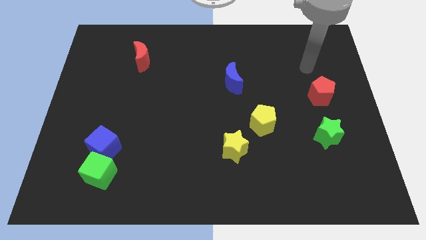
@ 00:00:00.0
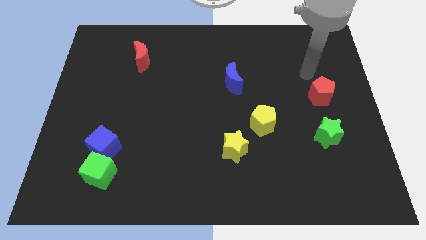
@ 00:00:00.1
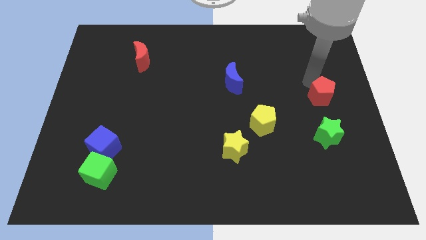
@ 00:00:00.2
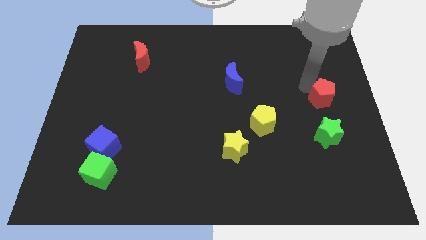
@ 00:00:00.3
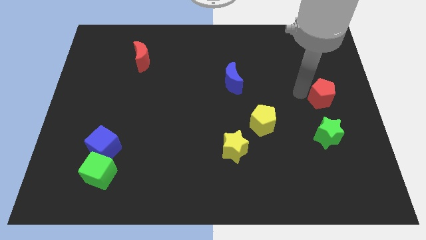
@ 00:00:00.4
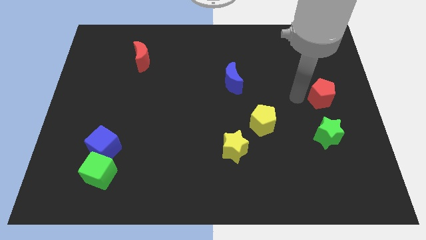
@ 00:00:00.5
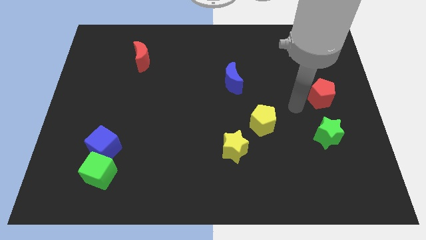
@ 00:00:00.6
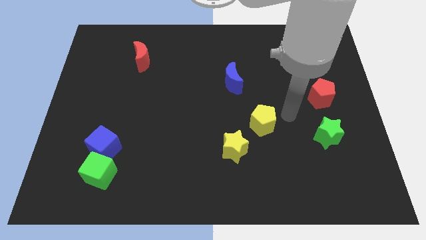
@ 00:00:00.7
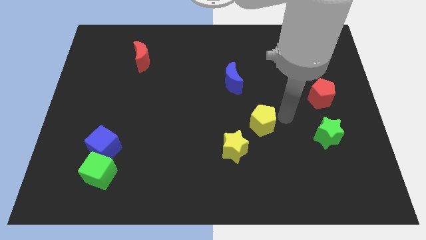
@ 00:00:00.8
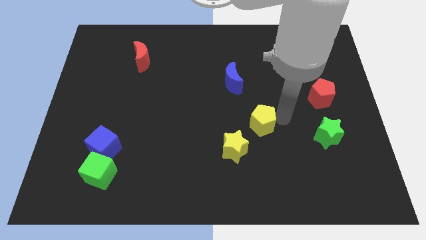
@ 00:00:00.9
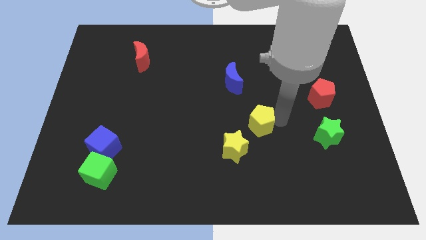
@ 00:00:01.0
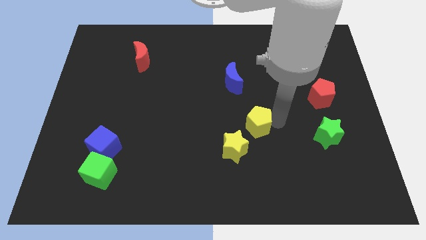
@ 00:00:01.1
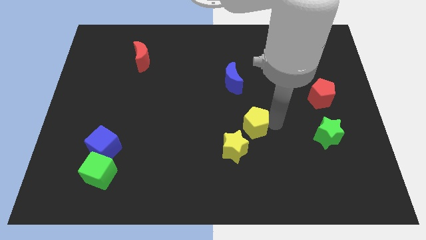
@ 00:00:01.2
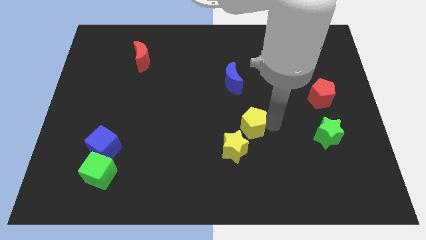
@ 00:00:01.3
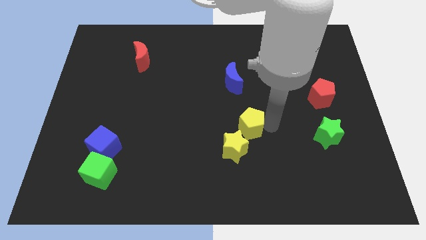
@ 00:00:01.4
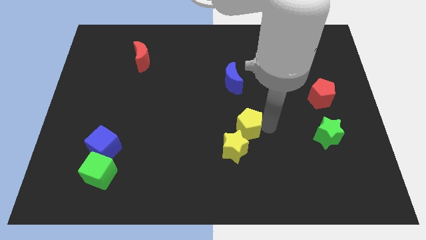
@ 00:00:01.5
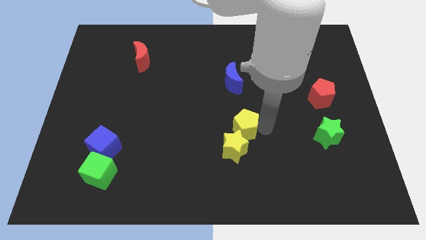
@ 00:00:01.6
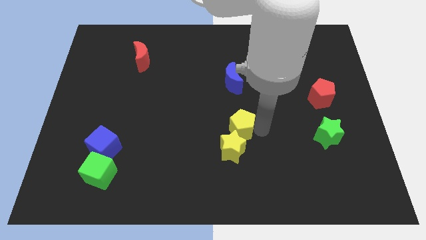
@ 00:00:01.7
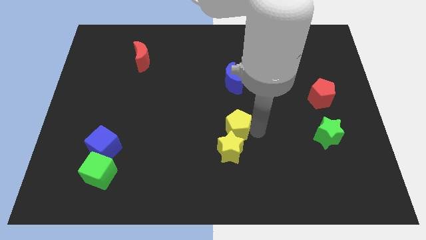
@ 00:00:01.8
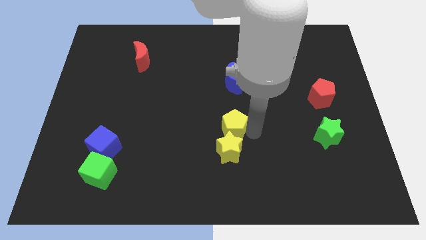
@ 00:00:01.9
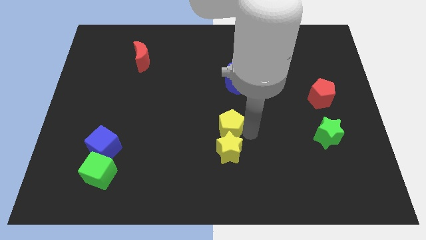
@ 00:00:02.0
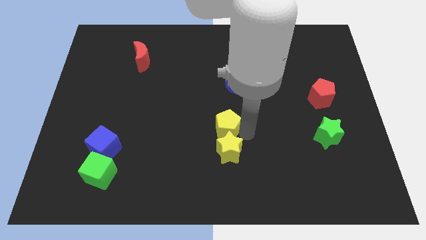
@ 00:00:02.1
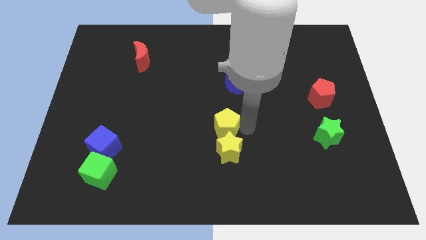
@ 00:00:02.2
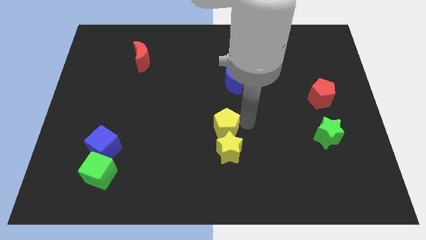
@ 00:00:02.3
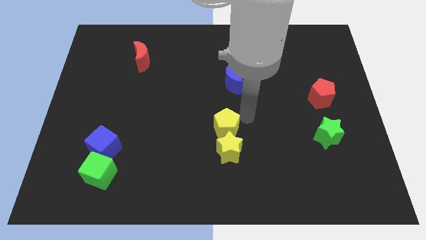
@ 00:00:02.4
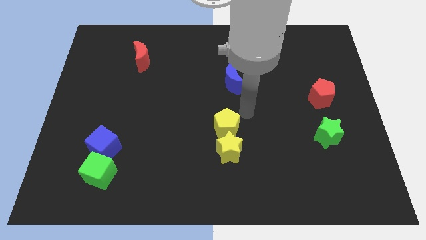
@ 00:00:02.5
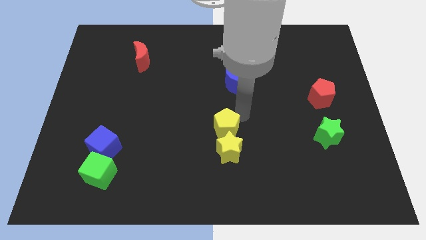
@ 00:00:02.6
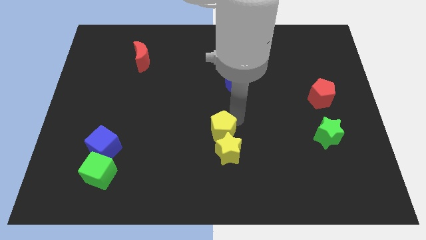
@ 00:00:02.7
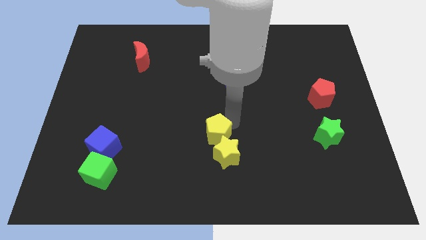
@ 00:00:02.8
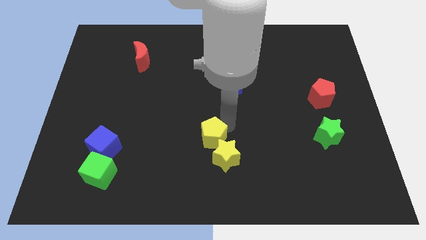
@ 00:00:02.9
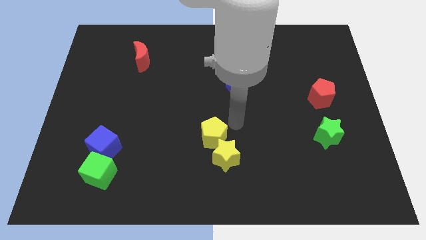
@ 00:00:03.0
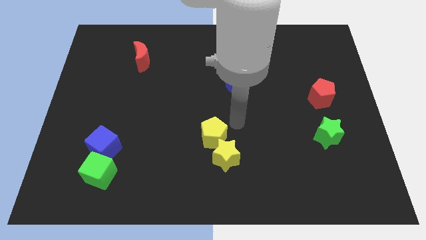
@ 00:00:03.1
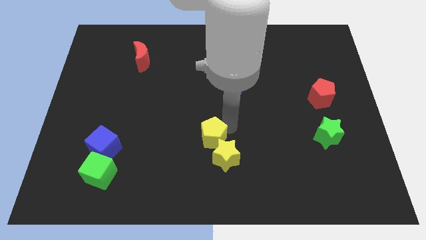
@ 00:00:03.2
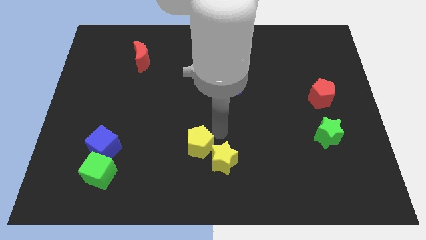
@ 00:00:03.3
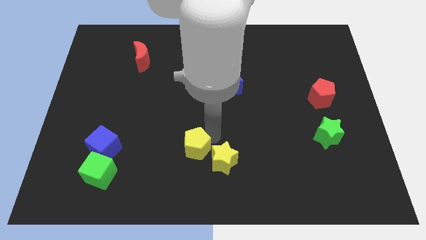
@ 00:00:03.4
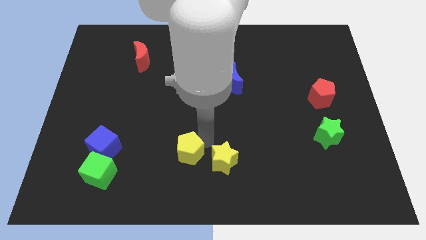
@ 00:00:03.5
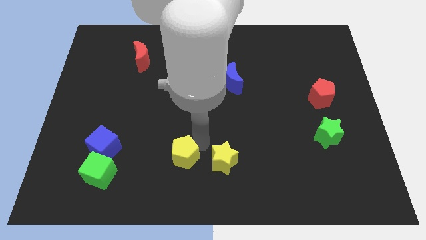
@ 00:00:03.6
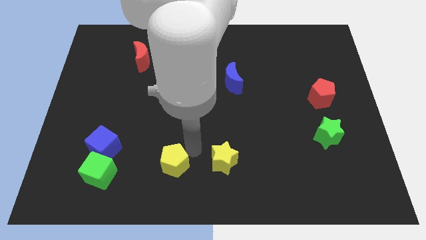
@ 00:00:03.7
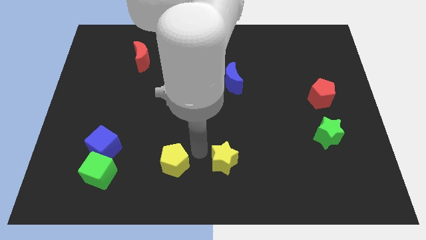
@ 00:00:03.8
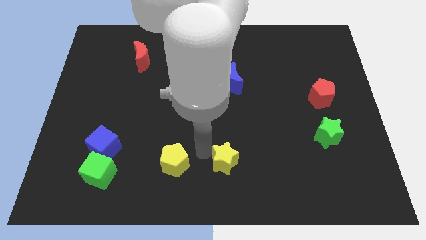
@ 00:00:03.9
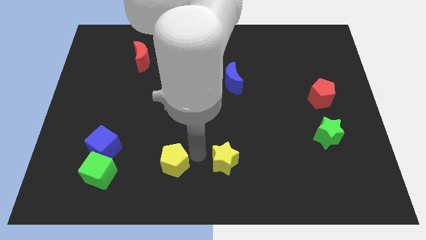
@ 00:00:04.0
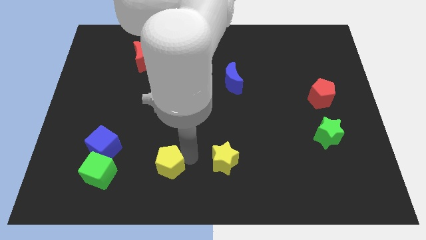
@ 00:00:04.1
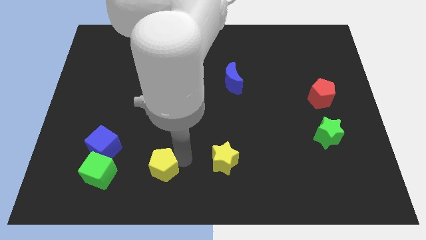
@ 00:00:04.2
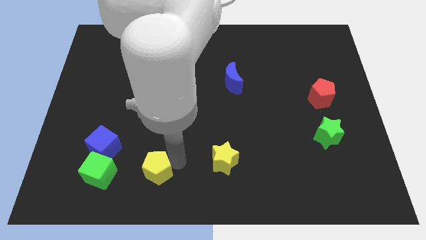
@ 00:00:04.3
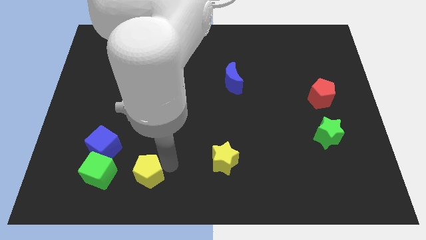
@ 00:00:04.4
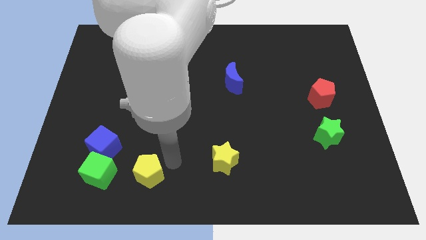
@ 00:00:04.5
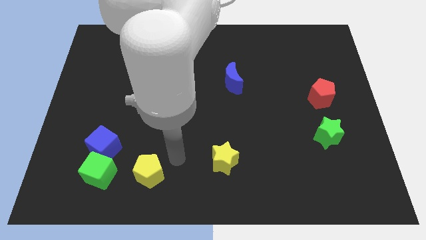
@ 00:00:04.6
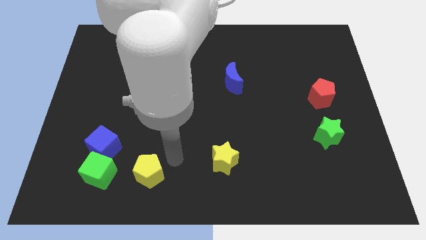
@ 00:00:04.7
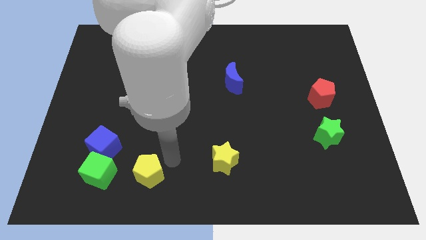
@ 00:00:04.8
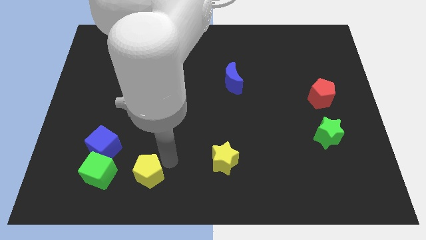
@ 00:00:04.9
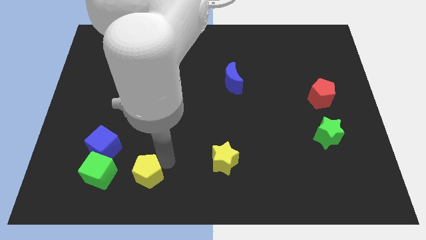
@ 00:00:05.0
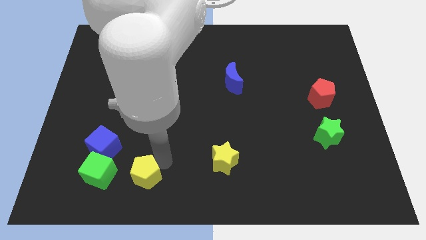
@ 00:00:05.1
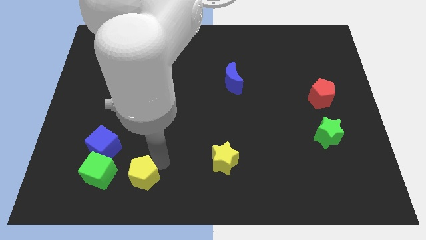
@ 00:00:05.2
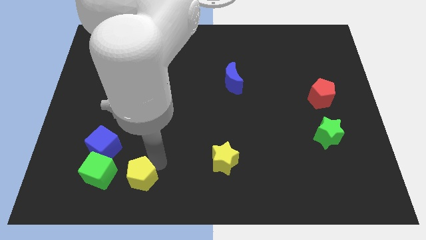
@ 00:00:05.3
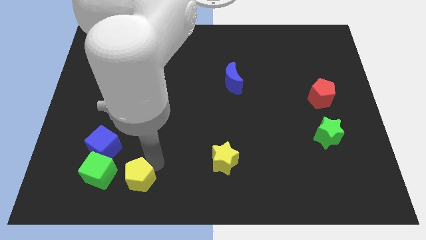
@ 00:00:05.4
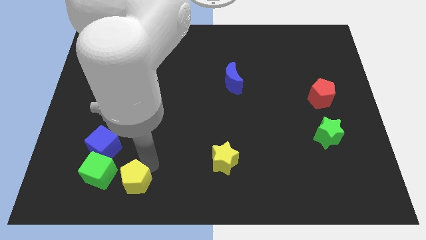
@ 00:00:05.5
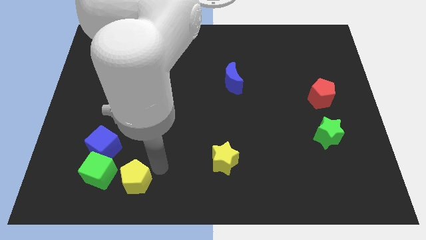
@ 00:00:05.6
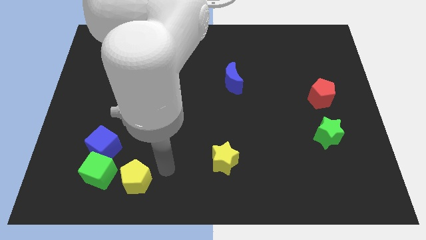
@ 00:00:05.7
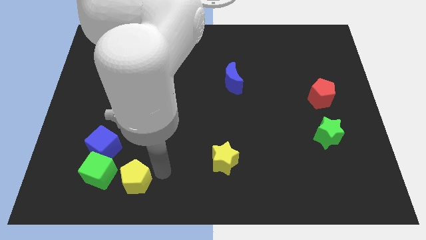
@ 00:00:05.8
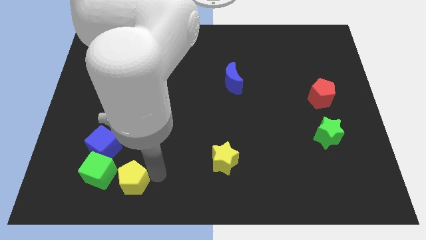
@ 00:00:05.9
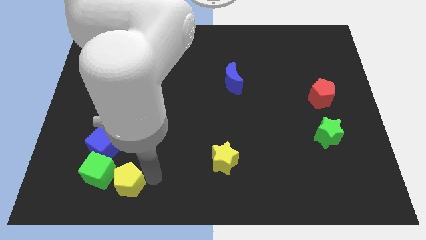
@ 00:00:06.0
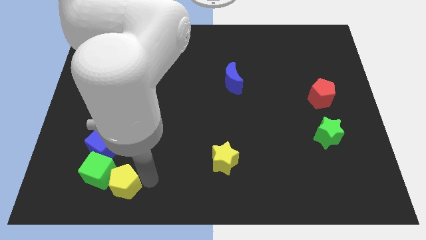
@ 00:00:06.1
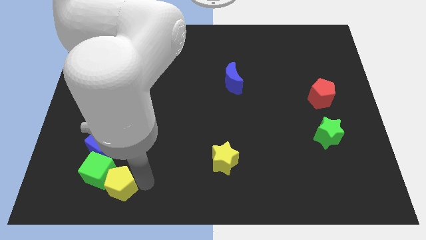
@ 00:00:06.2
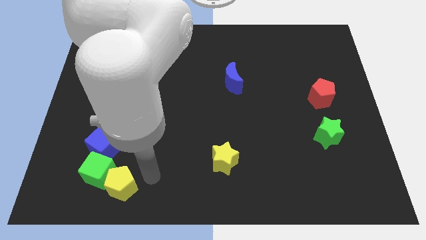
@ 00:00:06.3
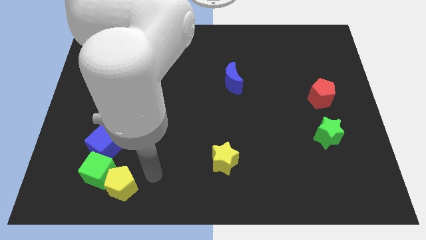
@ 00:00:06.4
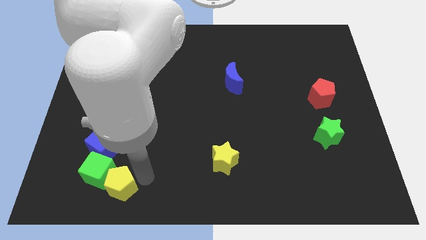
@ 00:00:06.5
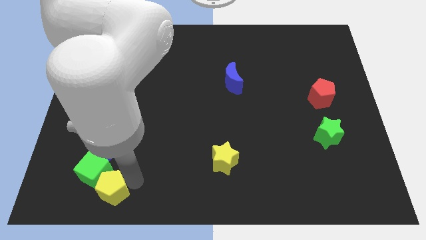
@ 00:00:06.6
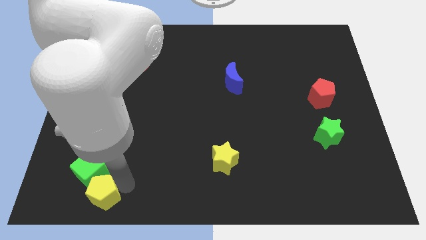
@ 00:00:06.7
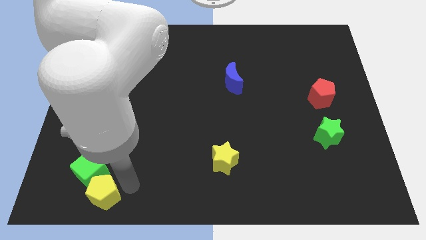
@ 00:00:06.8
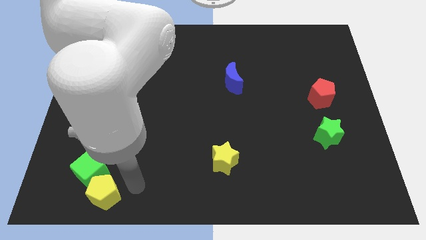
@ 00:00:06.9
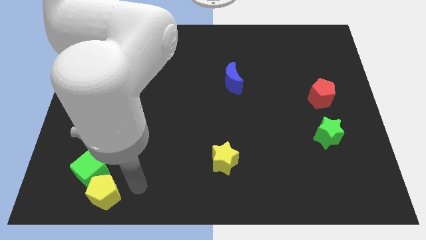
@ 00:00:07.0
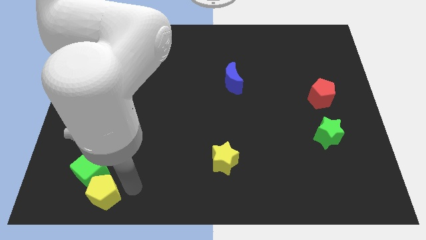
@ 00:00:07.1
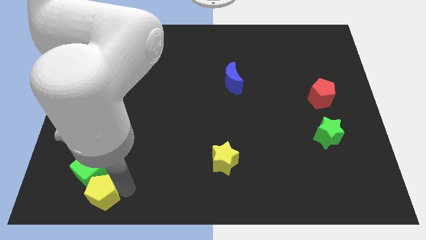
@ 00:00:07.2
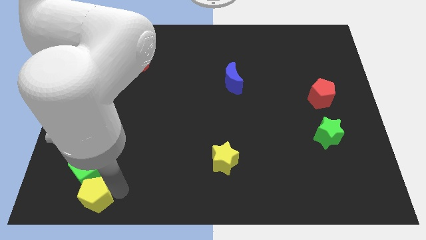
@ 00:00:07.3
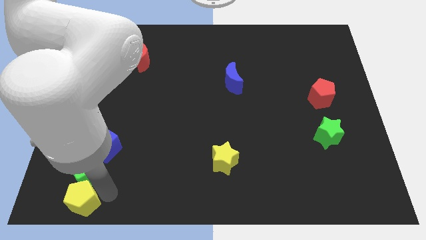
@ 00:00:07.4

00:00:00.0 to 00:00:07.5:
move the yellow pentagon to the bottom left of the board
